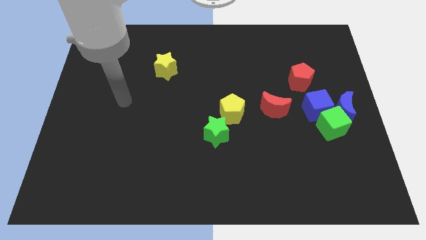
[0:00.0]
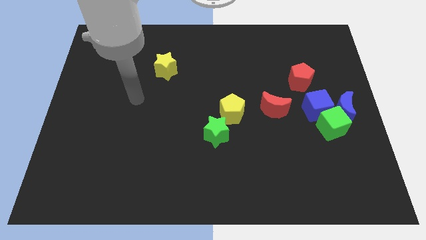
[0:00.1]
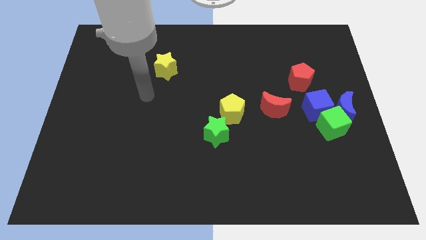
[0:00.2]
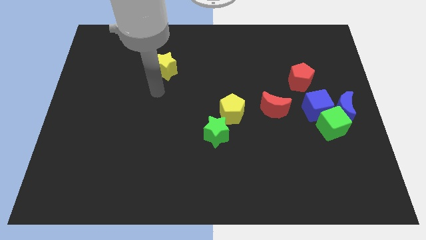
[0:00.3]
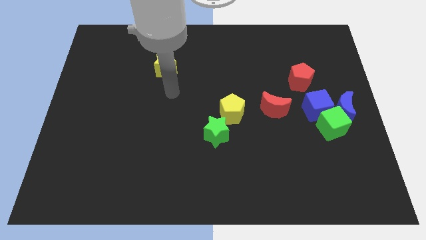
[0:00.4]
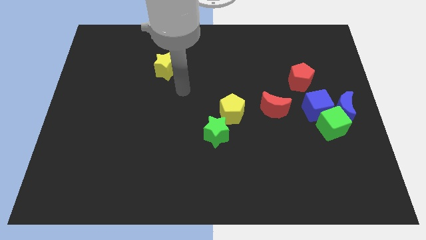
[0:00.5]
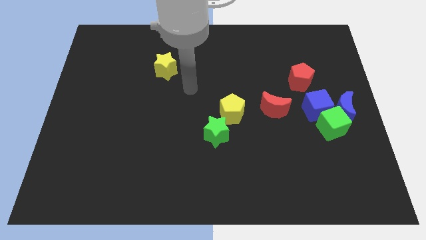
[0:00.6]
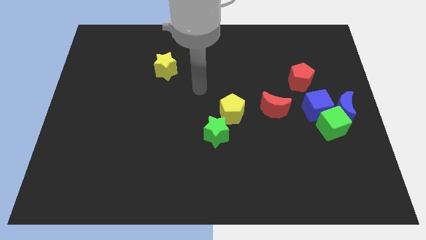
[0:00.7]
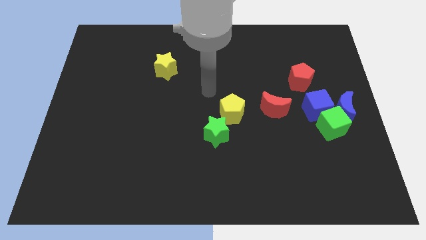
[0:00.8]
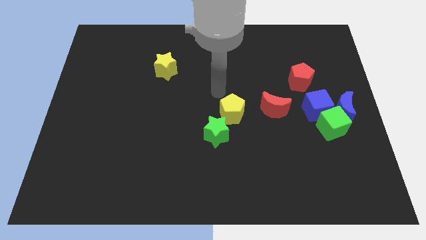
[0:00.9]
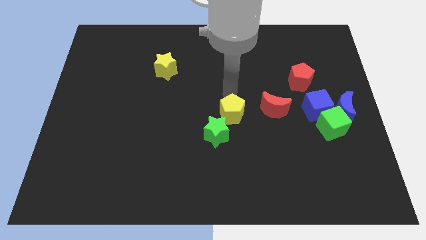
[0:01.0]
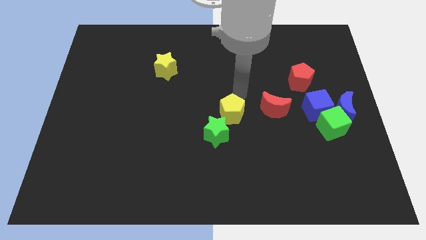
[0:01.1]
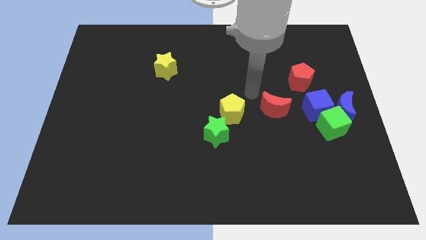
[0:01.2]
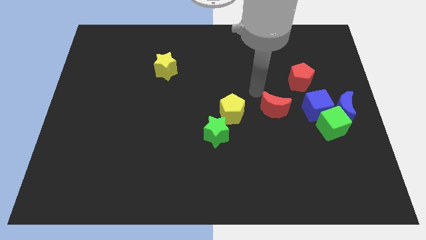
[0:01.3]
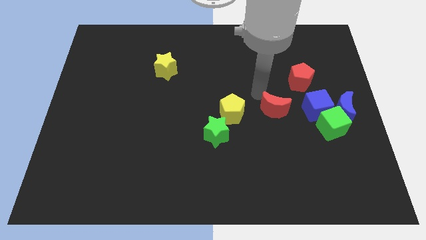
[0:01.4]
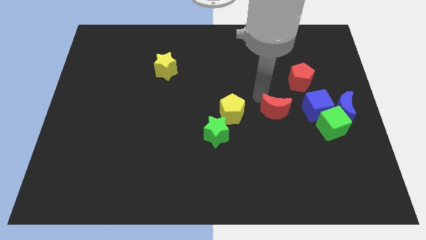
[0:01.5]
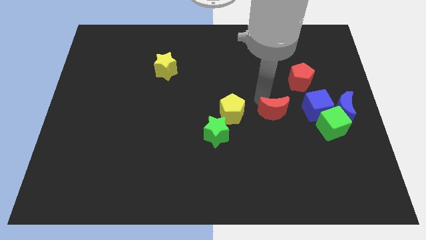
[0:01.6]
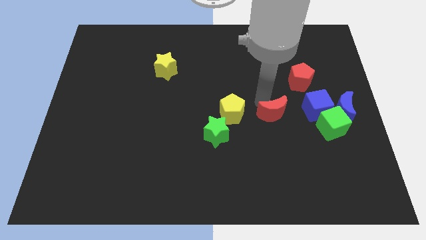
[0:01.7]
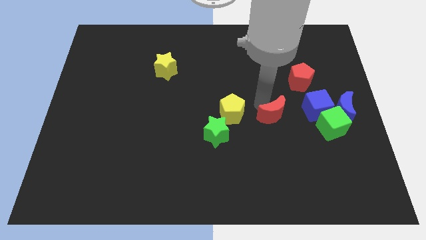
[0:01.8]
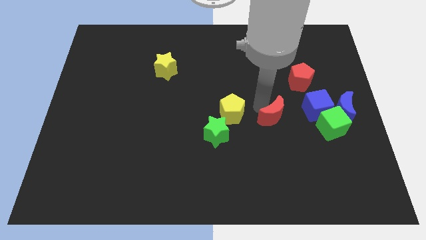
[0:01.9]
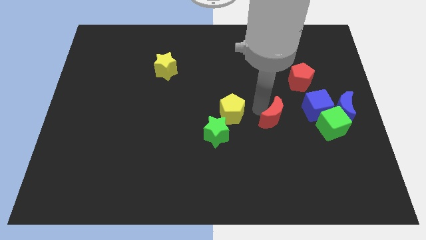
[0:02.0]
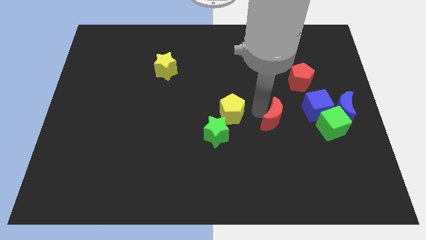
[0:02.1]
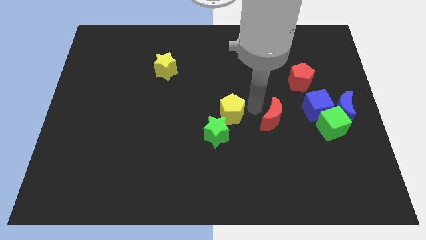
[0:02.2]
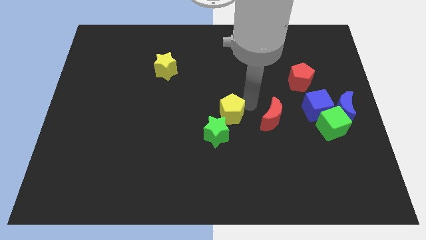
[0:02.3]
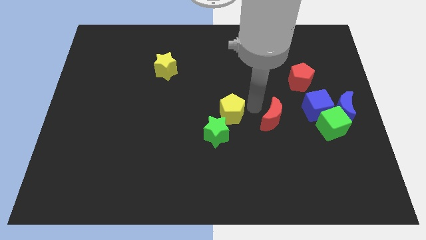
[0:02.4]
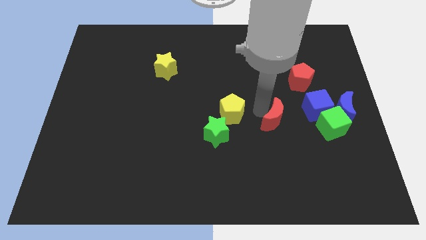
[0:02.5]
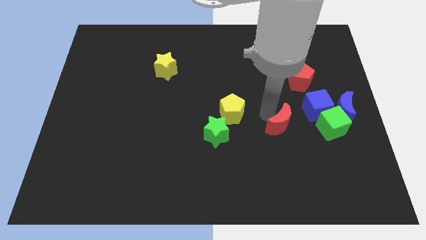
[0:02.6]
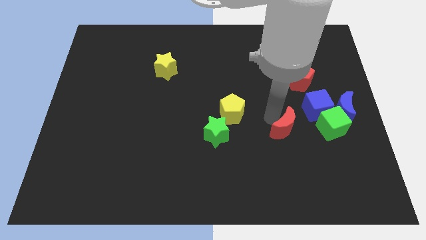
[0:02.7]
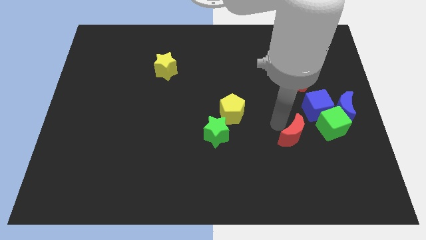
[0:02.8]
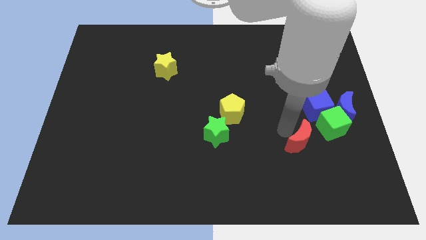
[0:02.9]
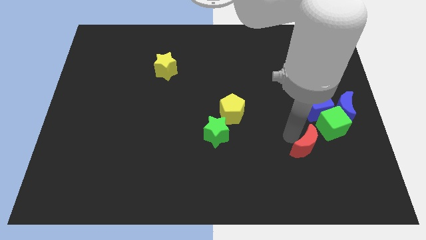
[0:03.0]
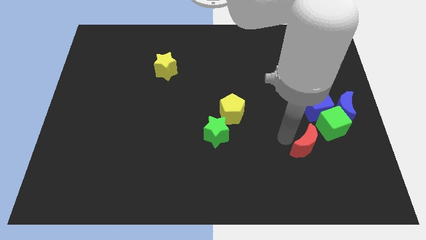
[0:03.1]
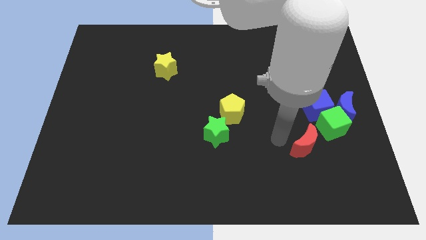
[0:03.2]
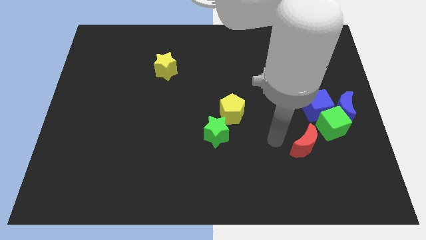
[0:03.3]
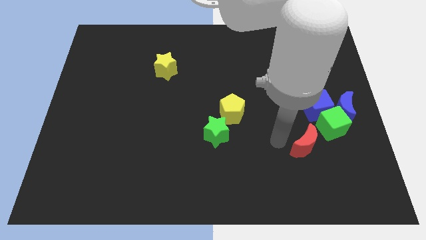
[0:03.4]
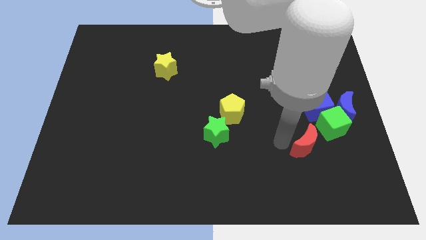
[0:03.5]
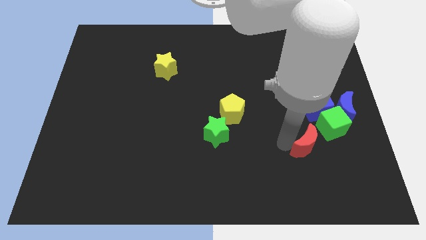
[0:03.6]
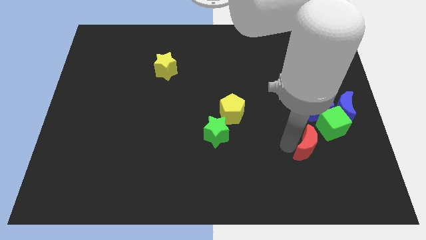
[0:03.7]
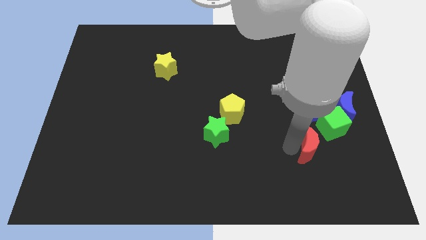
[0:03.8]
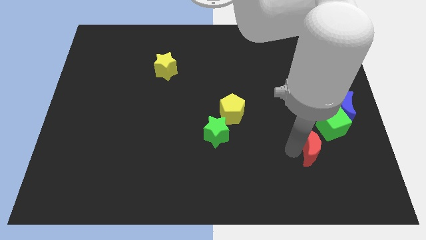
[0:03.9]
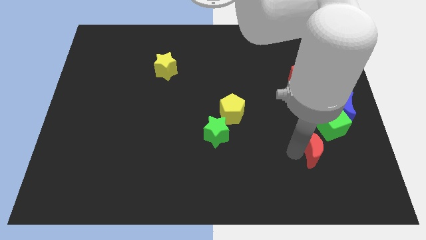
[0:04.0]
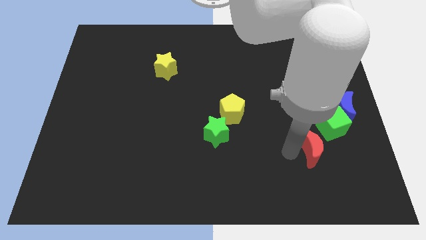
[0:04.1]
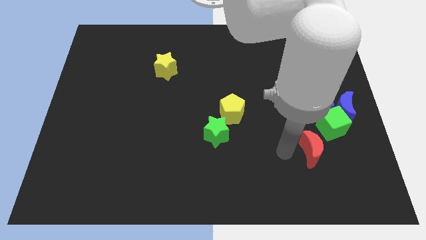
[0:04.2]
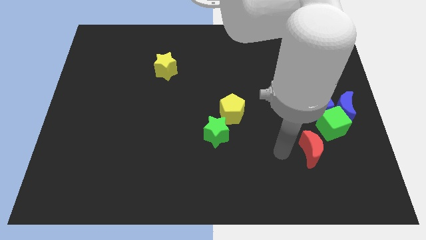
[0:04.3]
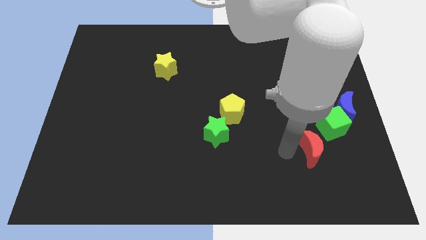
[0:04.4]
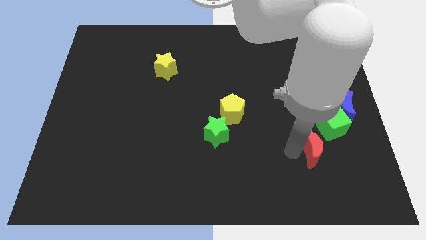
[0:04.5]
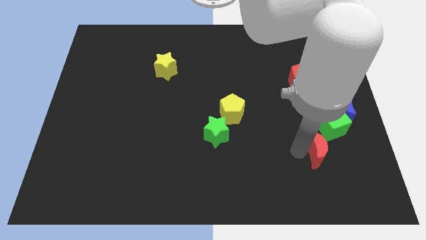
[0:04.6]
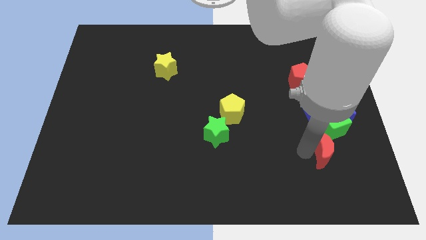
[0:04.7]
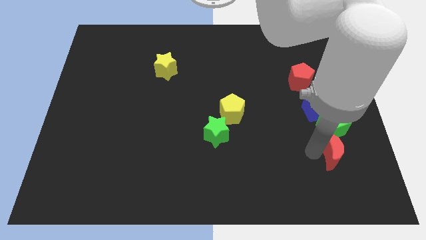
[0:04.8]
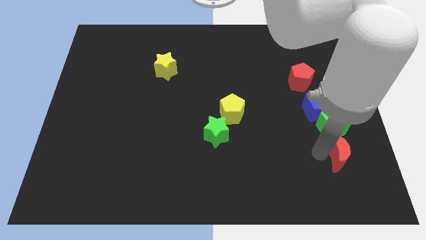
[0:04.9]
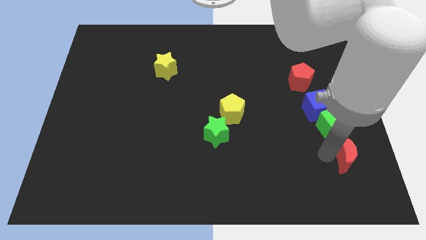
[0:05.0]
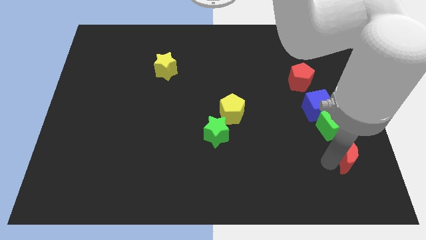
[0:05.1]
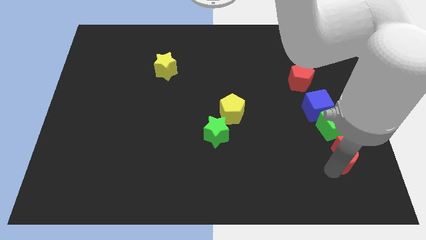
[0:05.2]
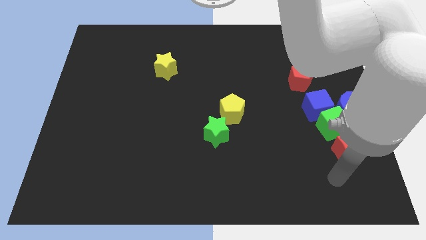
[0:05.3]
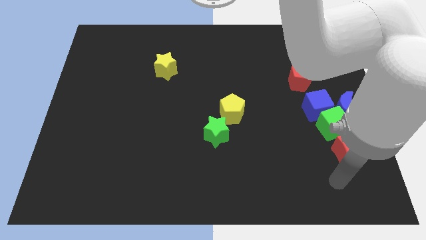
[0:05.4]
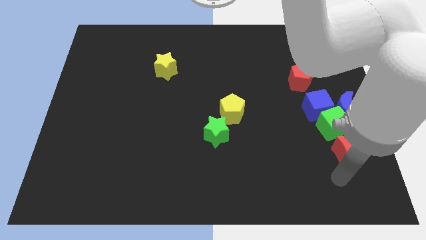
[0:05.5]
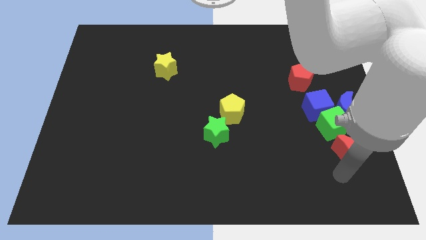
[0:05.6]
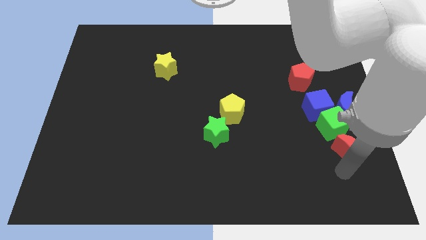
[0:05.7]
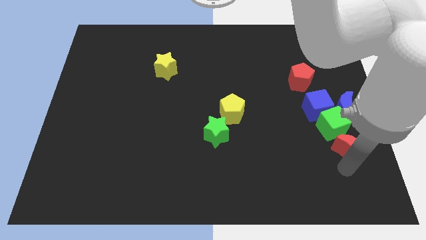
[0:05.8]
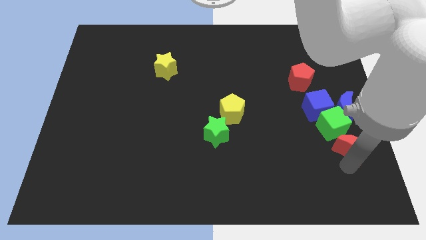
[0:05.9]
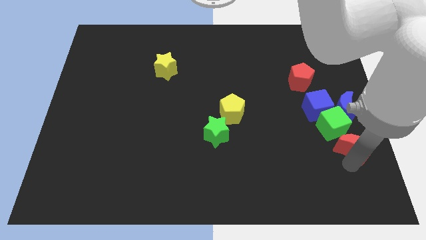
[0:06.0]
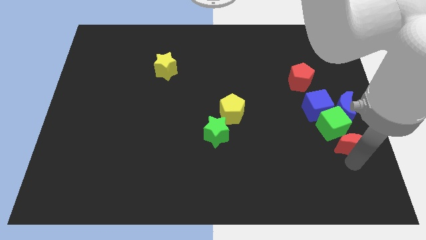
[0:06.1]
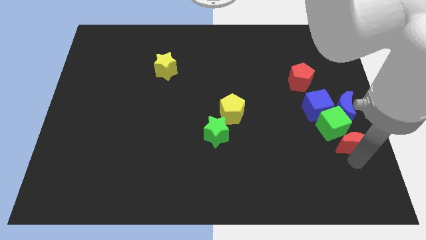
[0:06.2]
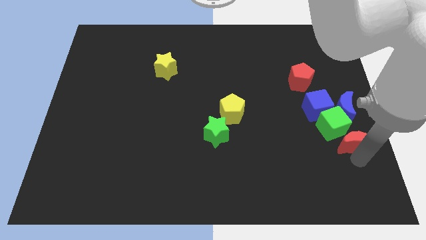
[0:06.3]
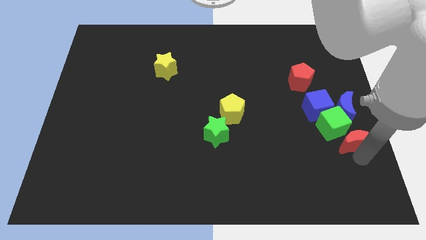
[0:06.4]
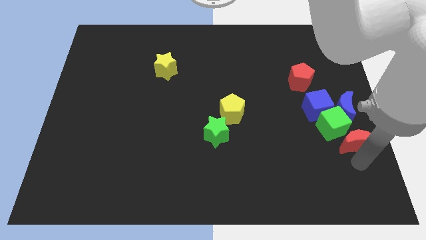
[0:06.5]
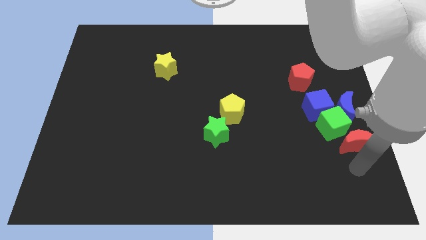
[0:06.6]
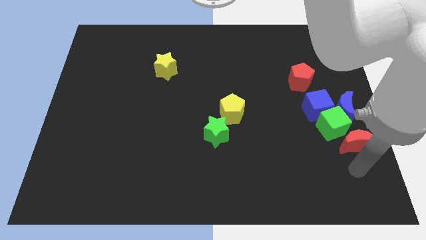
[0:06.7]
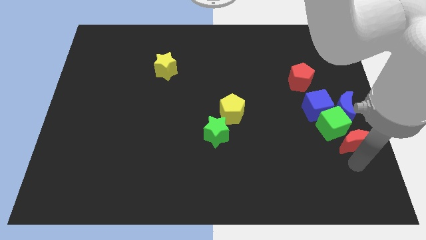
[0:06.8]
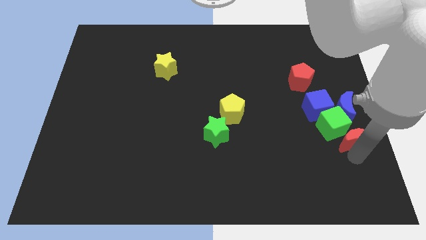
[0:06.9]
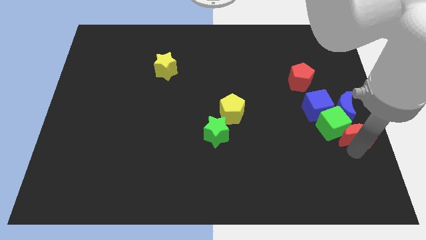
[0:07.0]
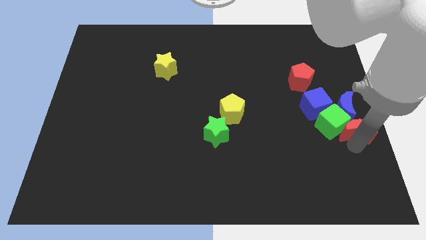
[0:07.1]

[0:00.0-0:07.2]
slide the red moon next to the blue moon
